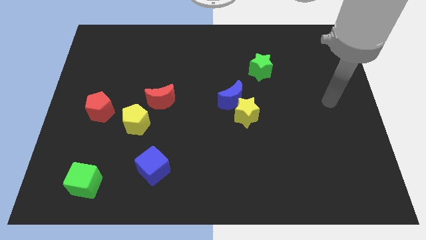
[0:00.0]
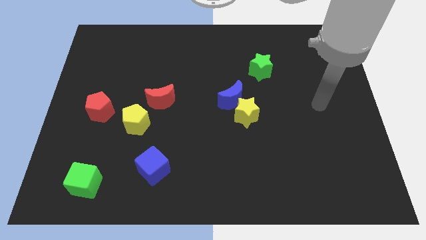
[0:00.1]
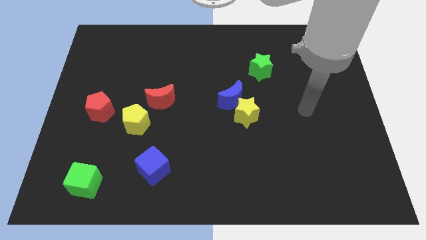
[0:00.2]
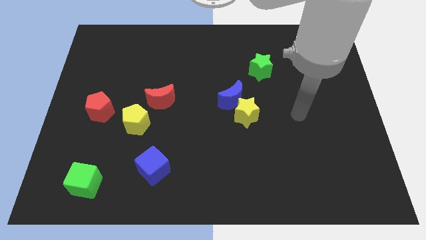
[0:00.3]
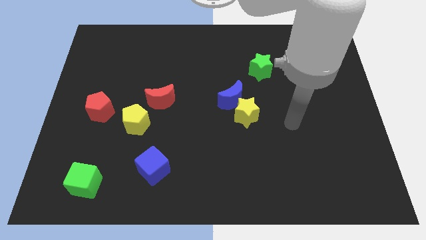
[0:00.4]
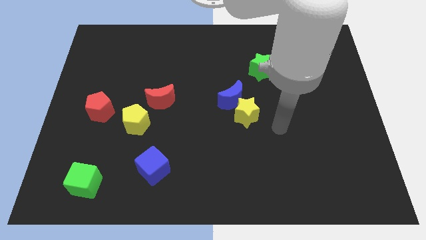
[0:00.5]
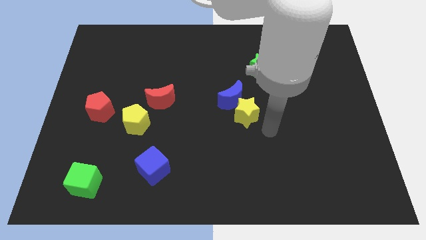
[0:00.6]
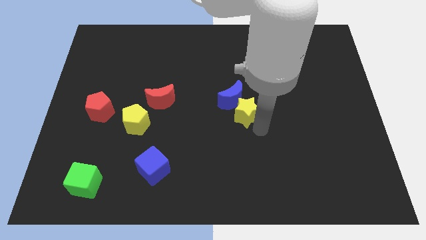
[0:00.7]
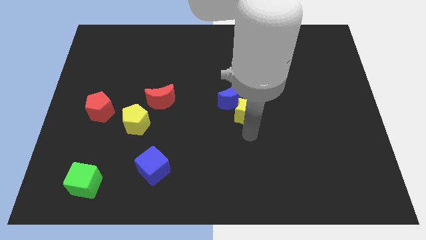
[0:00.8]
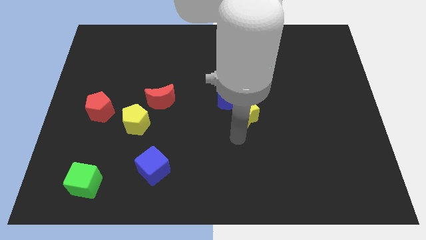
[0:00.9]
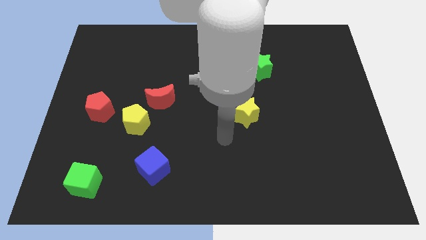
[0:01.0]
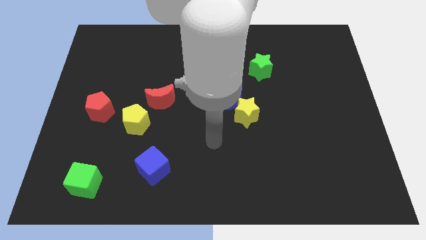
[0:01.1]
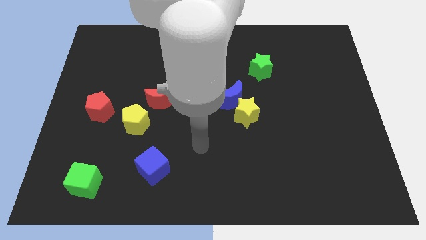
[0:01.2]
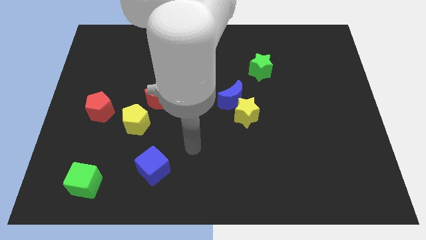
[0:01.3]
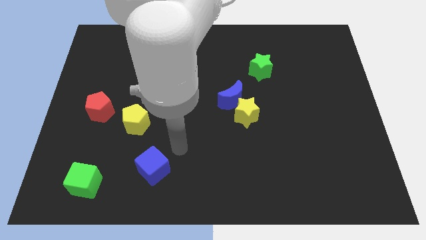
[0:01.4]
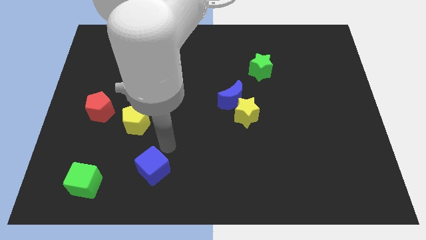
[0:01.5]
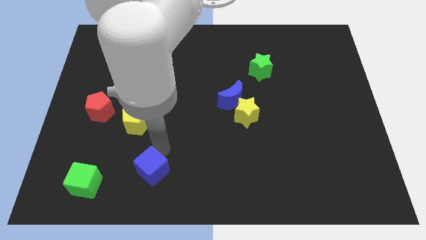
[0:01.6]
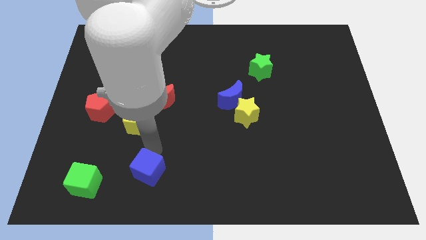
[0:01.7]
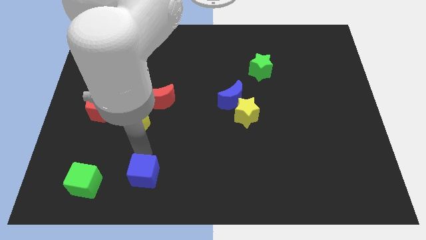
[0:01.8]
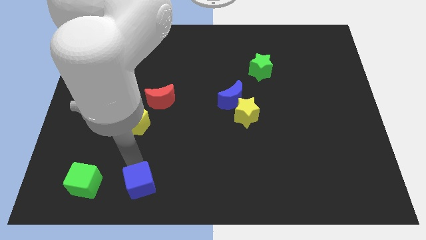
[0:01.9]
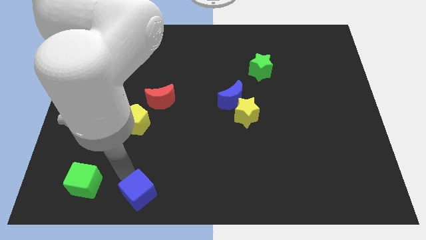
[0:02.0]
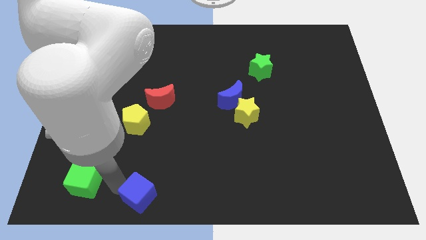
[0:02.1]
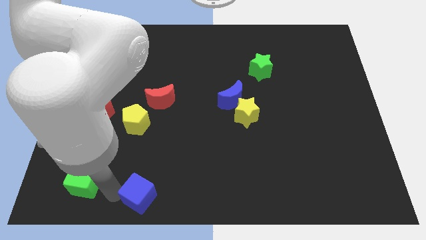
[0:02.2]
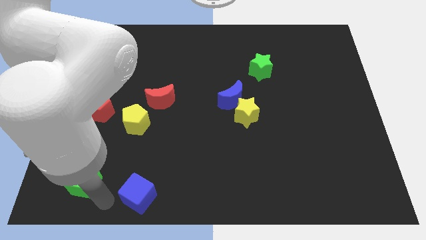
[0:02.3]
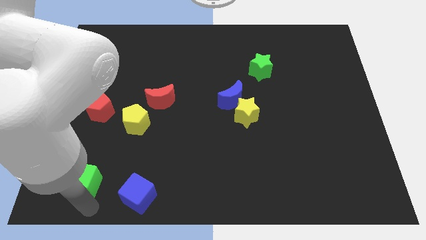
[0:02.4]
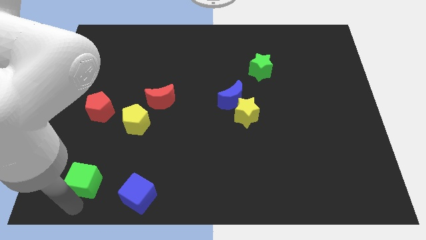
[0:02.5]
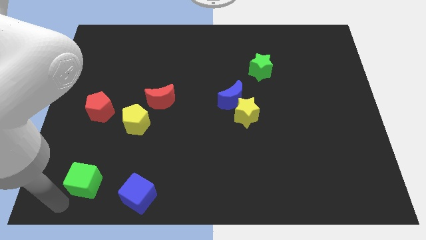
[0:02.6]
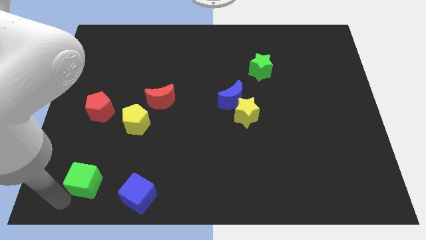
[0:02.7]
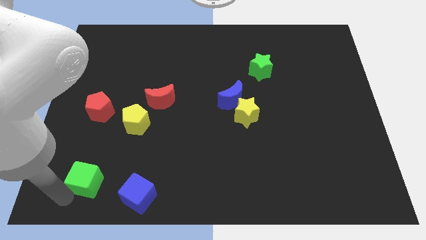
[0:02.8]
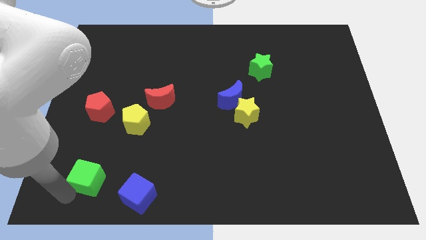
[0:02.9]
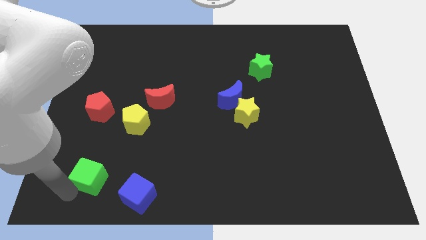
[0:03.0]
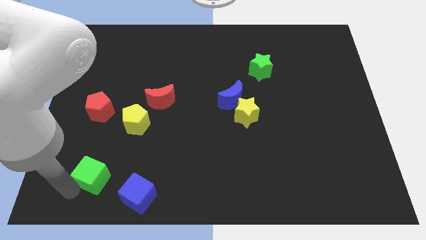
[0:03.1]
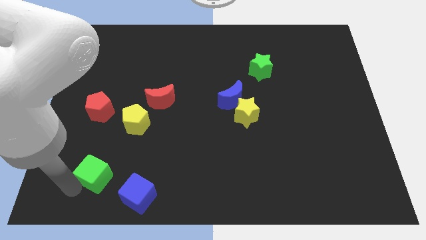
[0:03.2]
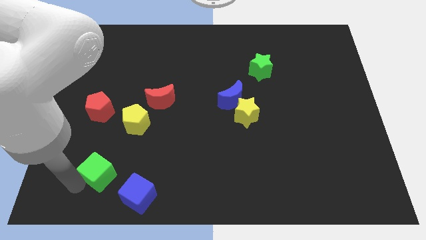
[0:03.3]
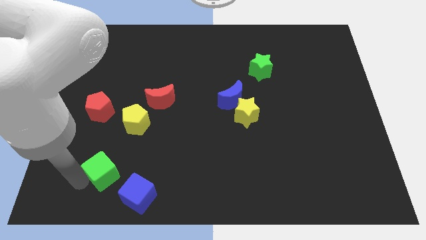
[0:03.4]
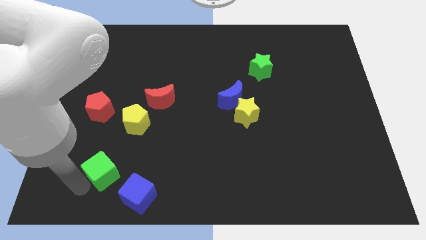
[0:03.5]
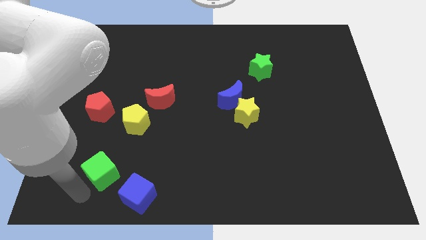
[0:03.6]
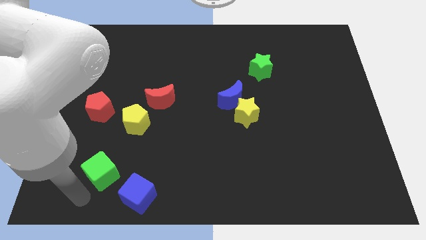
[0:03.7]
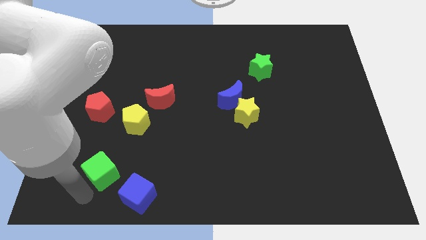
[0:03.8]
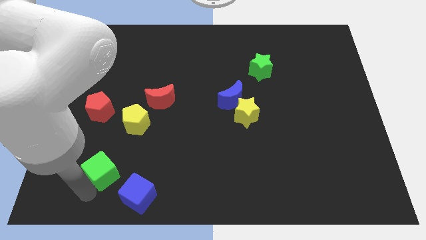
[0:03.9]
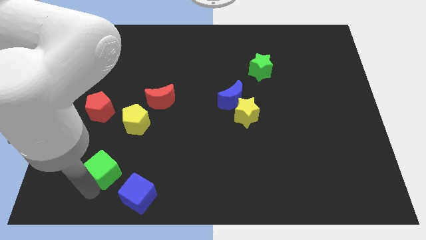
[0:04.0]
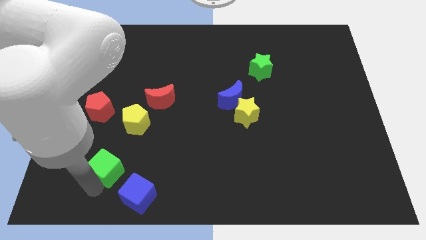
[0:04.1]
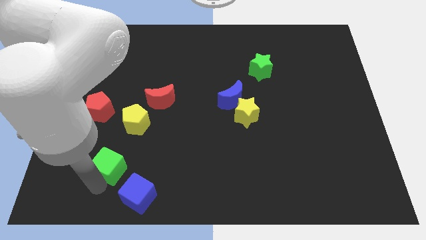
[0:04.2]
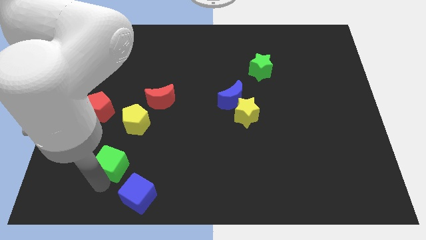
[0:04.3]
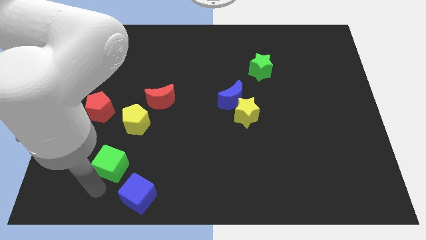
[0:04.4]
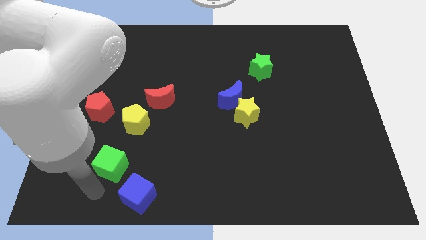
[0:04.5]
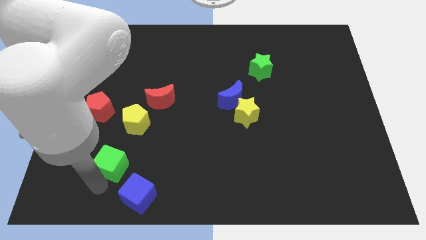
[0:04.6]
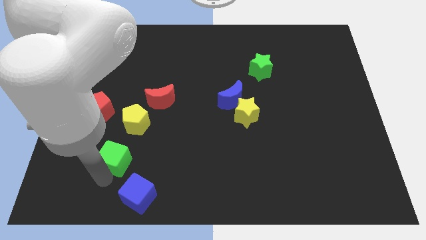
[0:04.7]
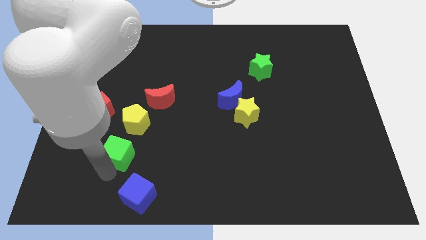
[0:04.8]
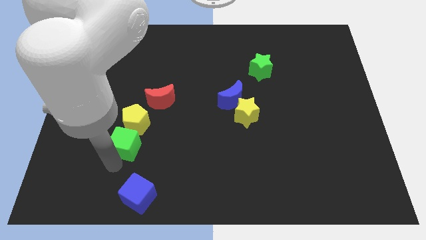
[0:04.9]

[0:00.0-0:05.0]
move the green cube next to the yellow pentagon

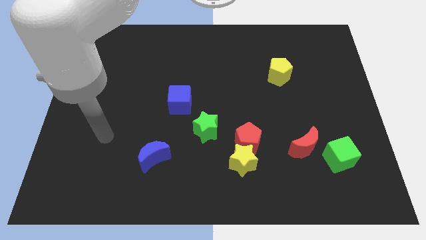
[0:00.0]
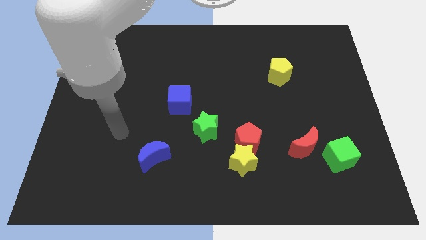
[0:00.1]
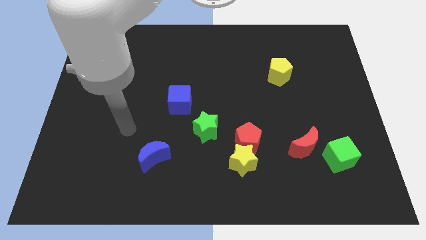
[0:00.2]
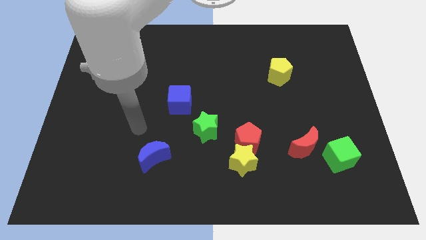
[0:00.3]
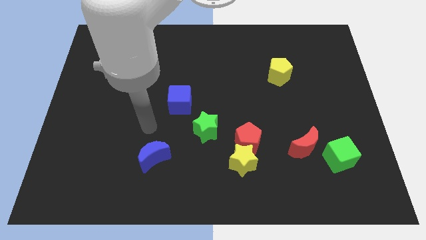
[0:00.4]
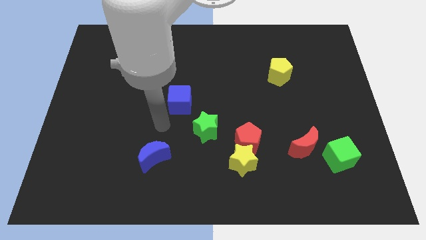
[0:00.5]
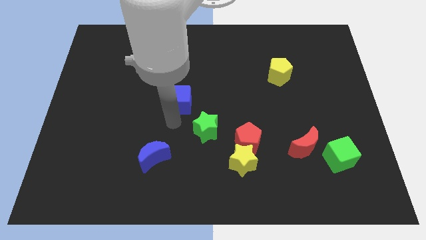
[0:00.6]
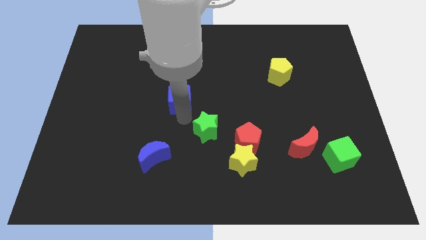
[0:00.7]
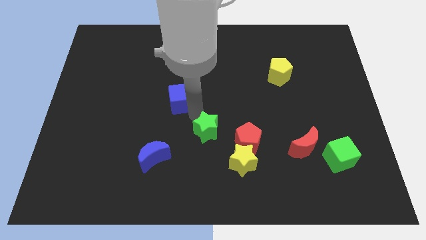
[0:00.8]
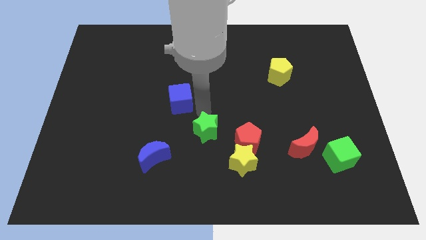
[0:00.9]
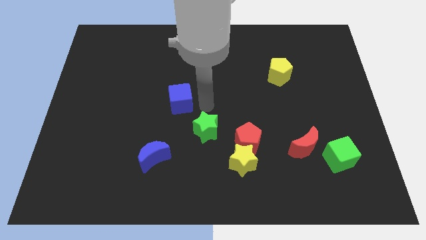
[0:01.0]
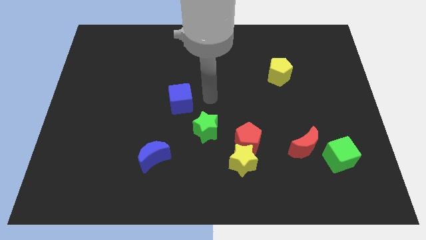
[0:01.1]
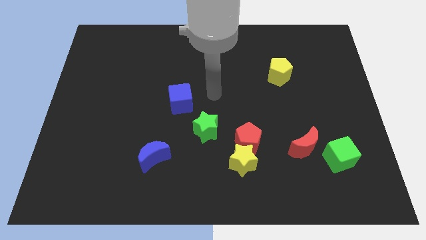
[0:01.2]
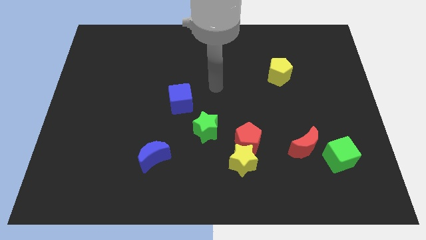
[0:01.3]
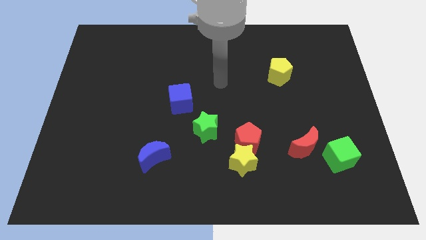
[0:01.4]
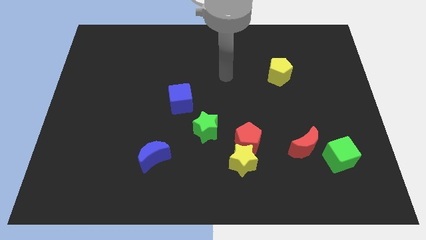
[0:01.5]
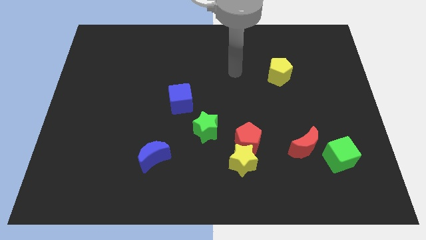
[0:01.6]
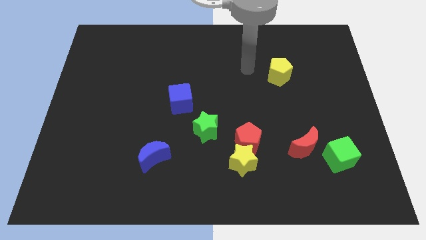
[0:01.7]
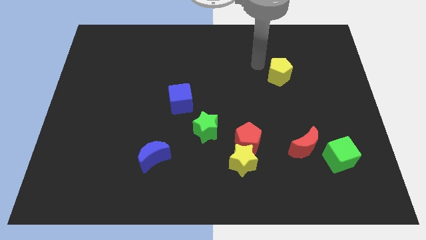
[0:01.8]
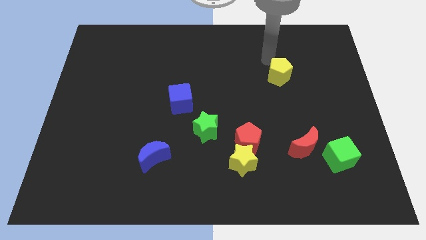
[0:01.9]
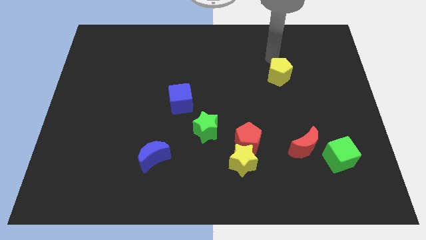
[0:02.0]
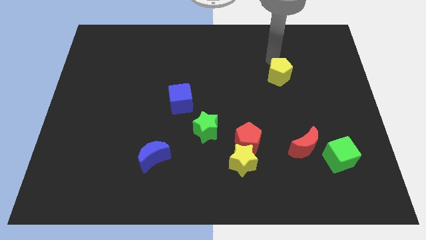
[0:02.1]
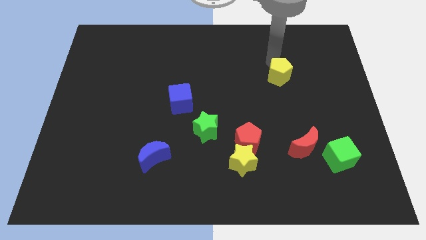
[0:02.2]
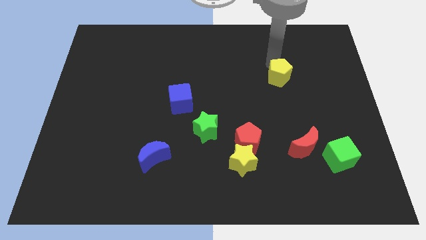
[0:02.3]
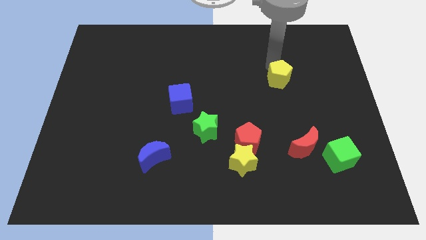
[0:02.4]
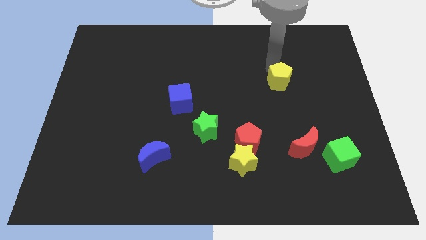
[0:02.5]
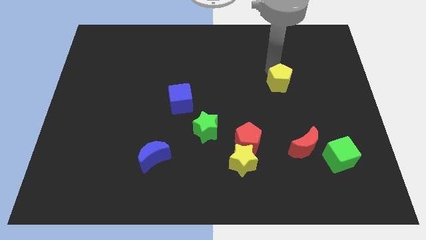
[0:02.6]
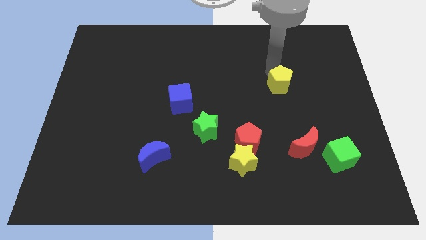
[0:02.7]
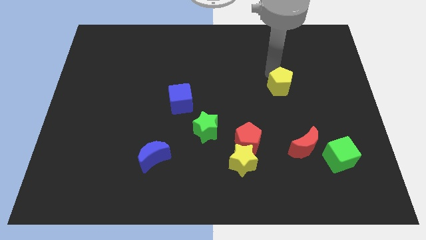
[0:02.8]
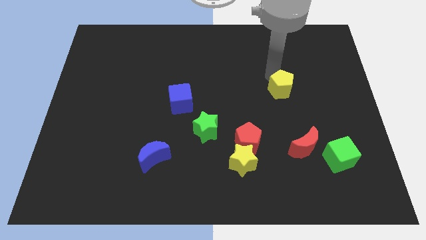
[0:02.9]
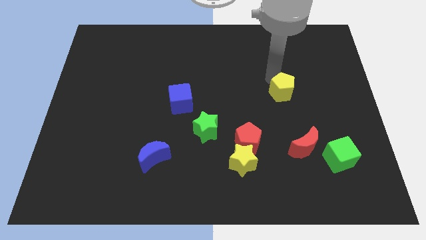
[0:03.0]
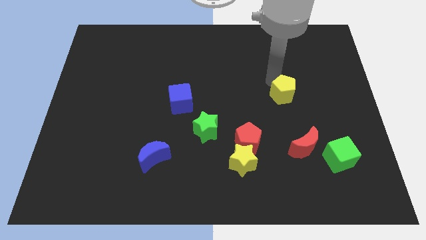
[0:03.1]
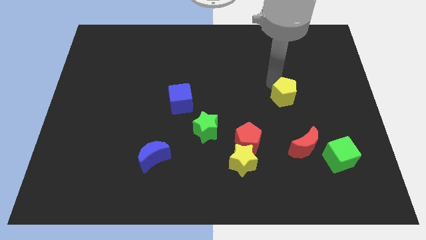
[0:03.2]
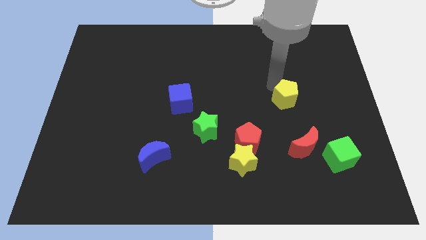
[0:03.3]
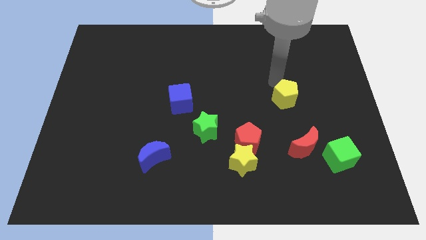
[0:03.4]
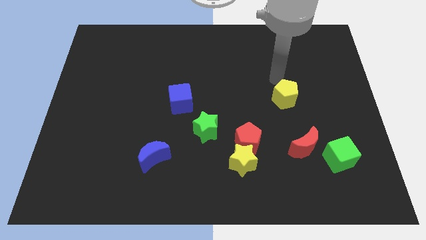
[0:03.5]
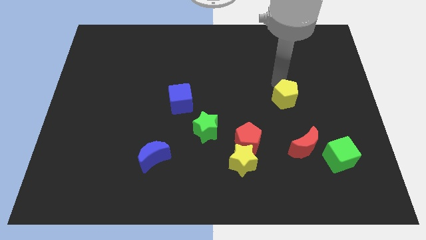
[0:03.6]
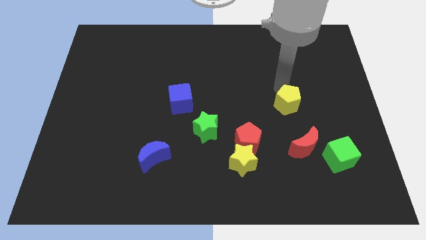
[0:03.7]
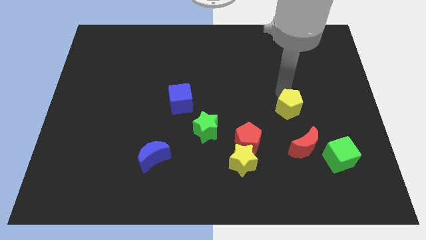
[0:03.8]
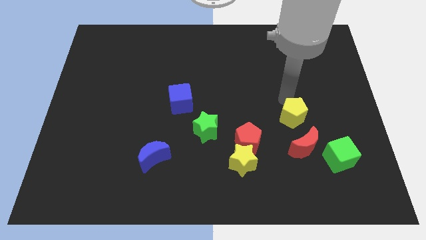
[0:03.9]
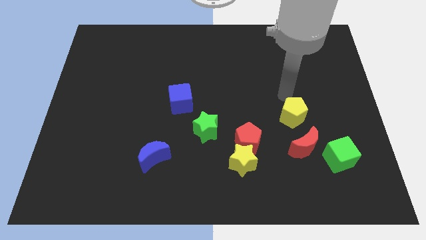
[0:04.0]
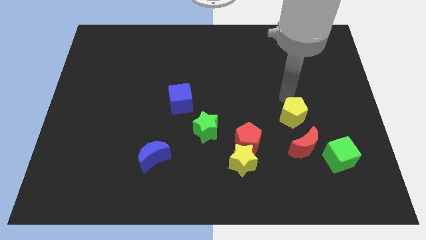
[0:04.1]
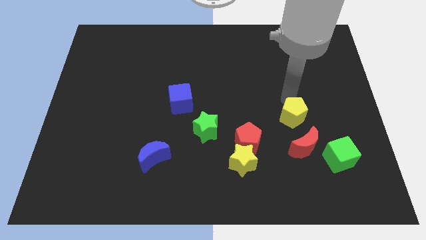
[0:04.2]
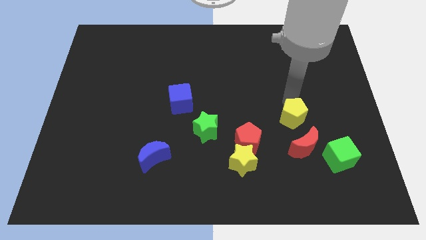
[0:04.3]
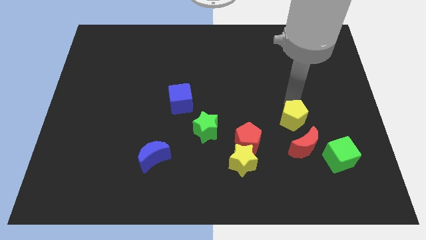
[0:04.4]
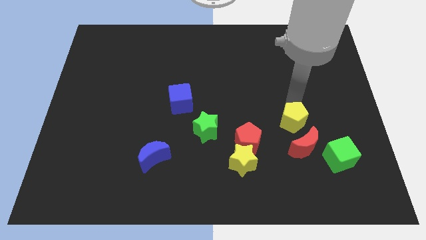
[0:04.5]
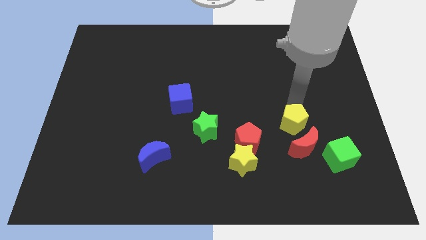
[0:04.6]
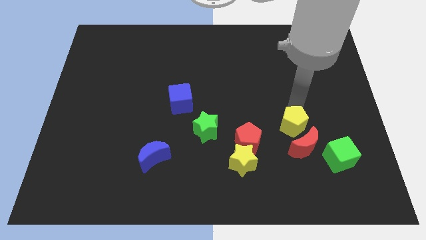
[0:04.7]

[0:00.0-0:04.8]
move the yellow pentagon next to the red moon
